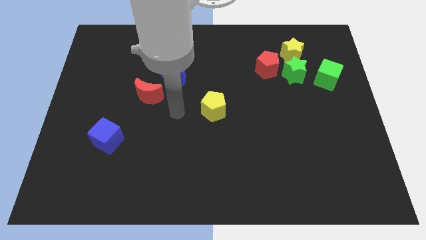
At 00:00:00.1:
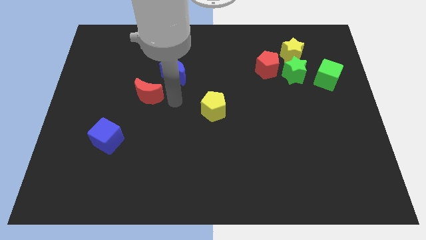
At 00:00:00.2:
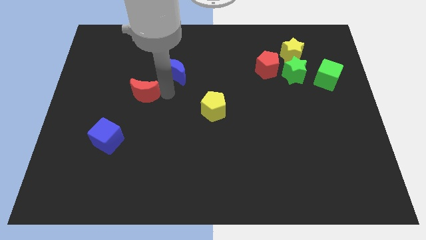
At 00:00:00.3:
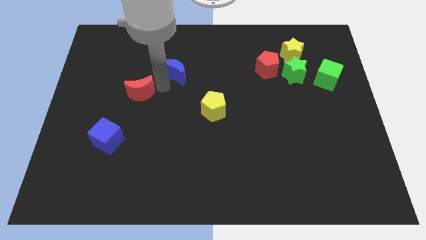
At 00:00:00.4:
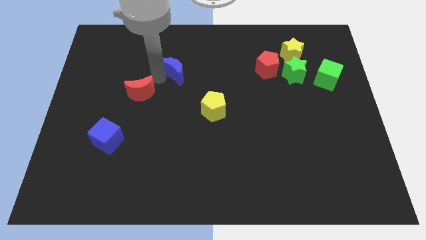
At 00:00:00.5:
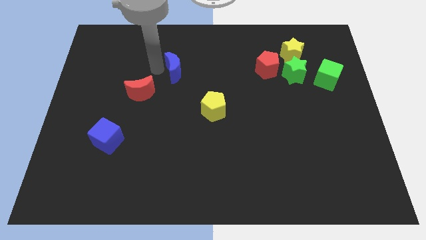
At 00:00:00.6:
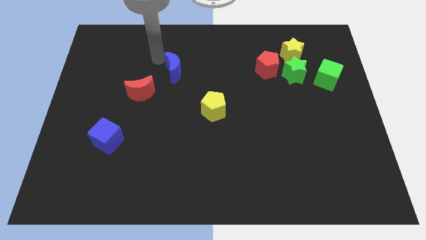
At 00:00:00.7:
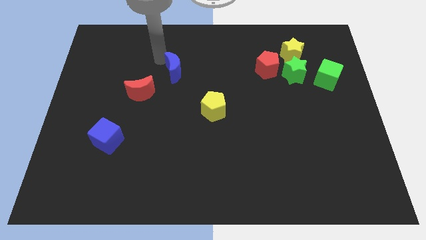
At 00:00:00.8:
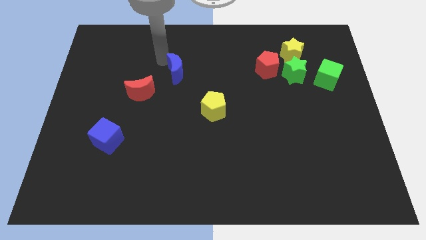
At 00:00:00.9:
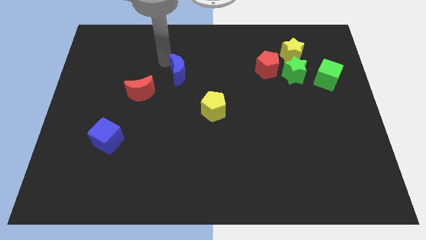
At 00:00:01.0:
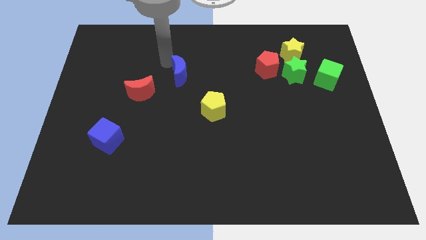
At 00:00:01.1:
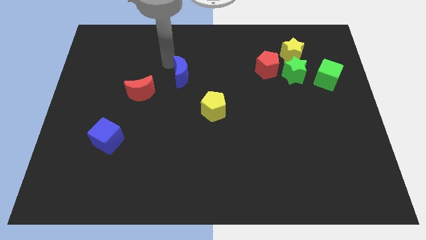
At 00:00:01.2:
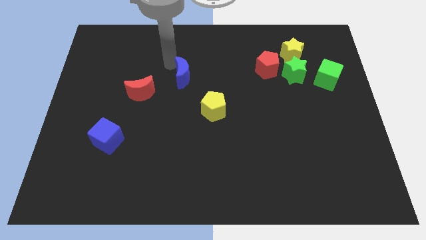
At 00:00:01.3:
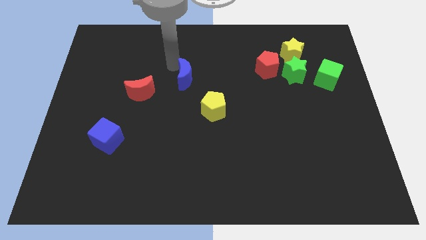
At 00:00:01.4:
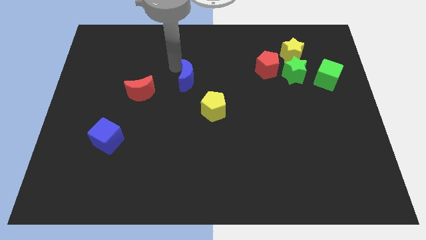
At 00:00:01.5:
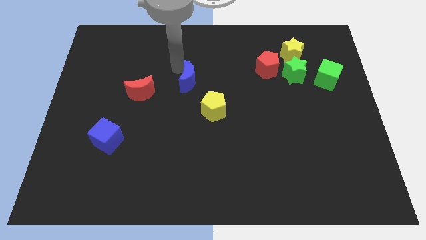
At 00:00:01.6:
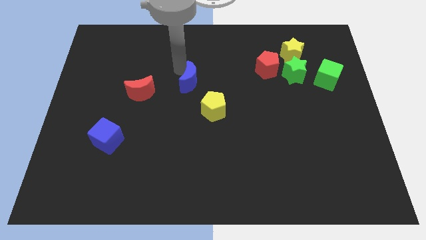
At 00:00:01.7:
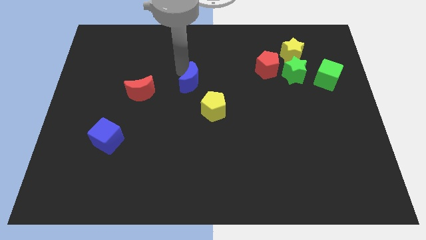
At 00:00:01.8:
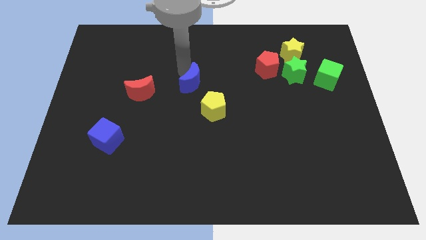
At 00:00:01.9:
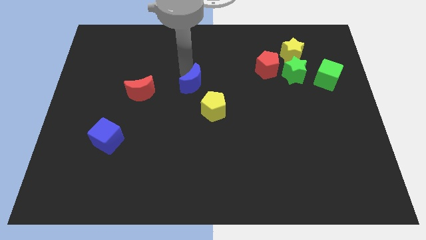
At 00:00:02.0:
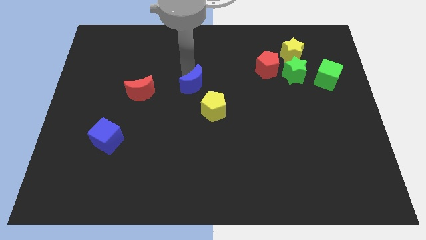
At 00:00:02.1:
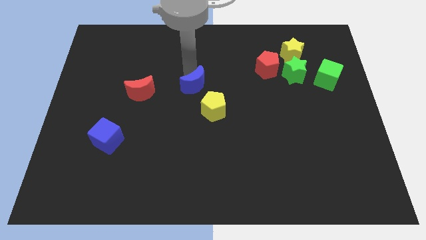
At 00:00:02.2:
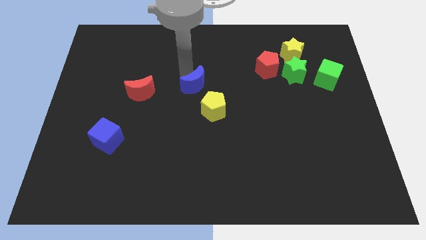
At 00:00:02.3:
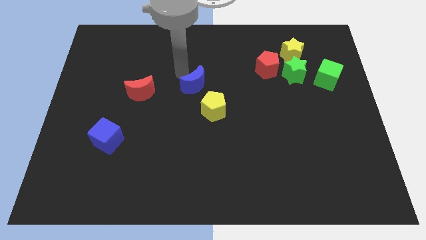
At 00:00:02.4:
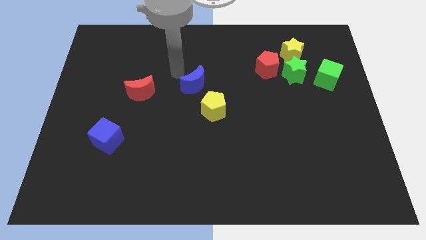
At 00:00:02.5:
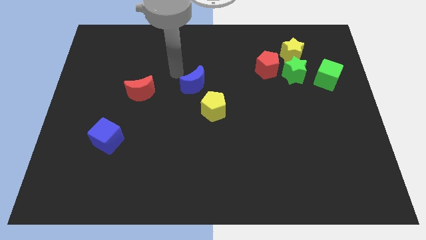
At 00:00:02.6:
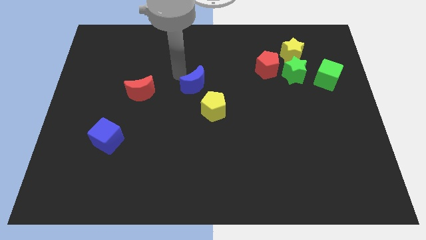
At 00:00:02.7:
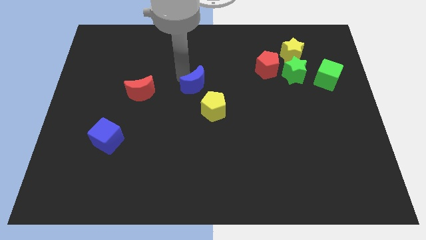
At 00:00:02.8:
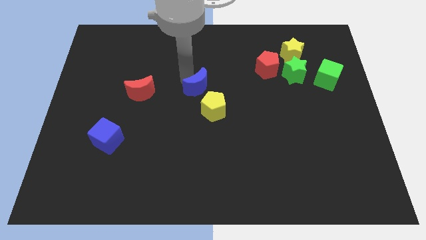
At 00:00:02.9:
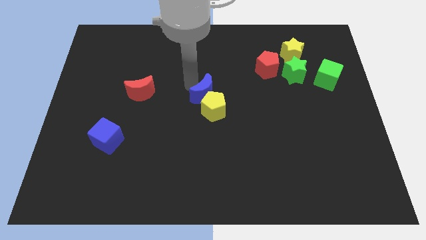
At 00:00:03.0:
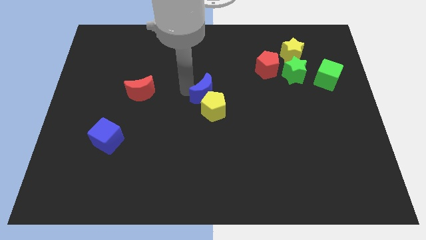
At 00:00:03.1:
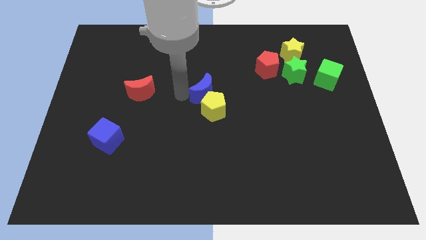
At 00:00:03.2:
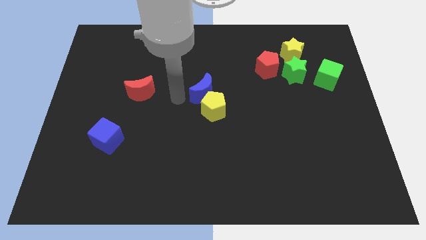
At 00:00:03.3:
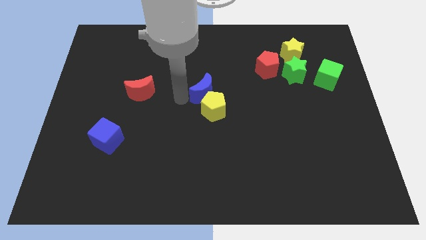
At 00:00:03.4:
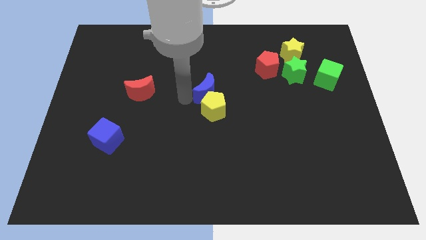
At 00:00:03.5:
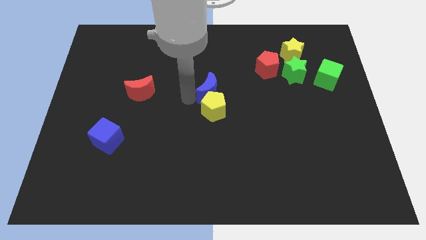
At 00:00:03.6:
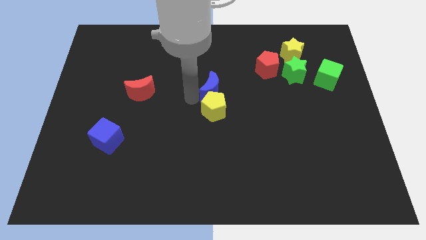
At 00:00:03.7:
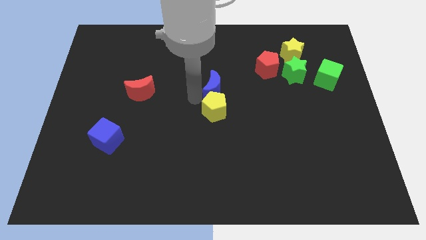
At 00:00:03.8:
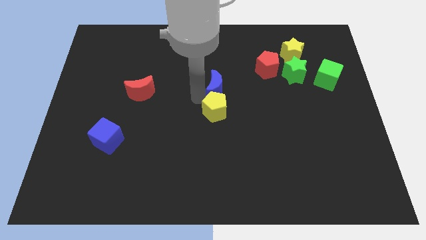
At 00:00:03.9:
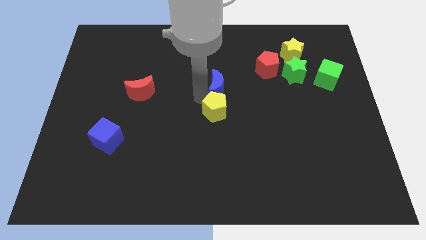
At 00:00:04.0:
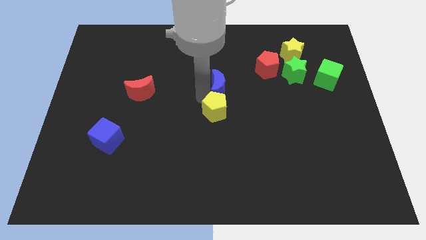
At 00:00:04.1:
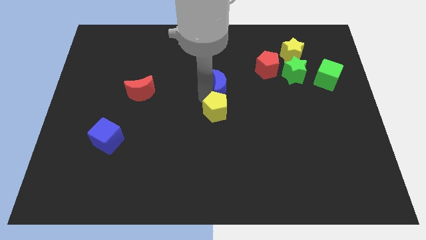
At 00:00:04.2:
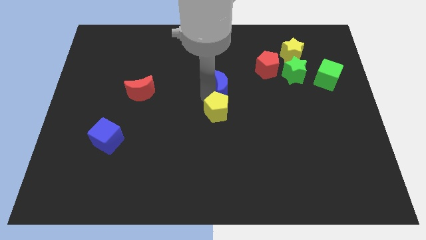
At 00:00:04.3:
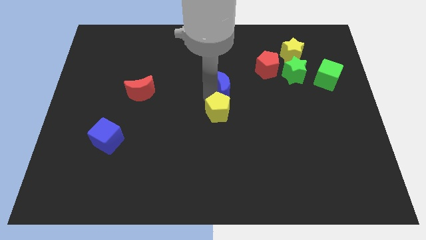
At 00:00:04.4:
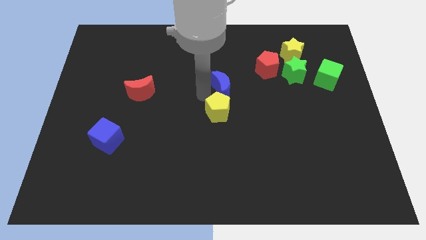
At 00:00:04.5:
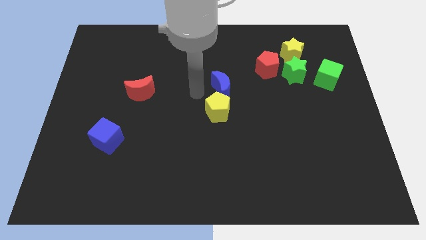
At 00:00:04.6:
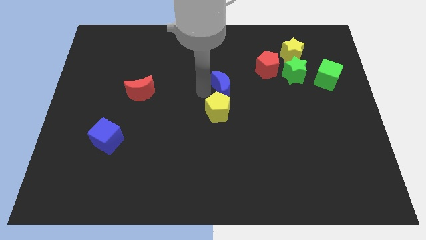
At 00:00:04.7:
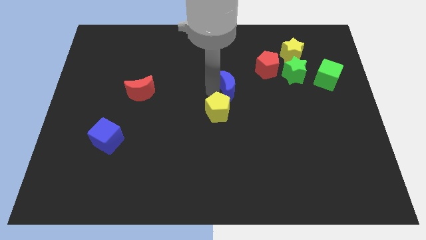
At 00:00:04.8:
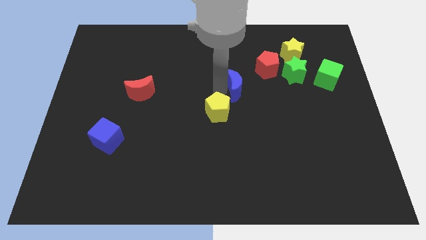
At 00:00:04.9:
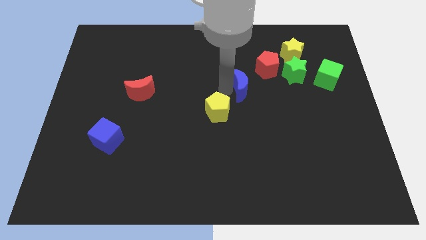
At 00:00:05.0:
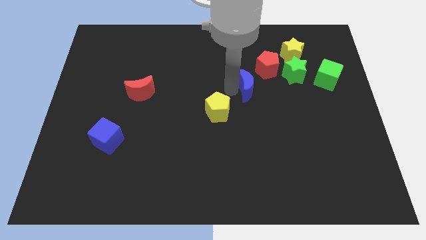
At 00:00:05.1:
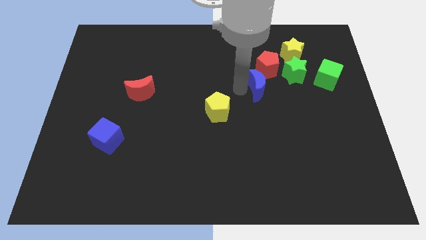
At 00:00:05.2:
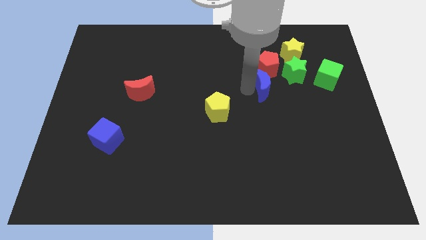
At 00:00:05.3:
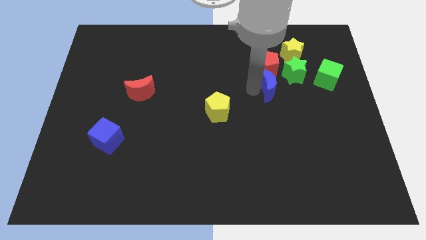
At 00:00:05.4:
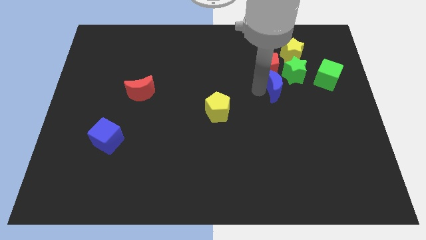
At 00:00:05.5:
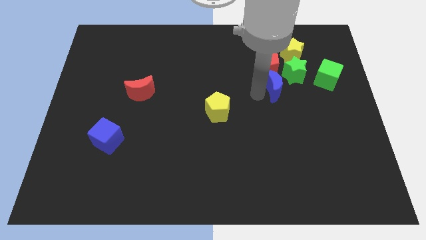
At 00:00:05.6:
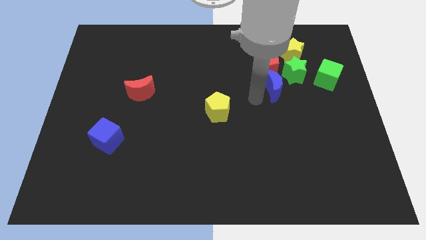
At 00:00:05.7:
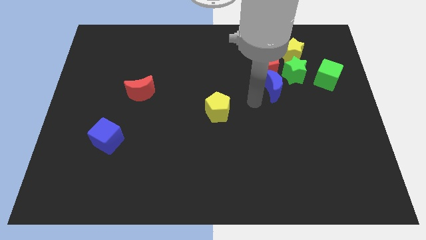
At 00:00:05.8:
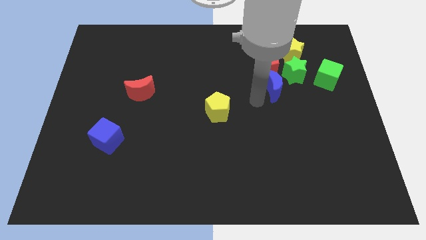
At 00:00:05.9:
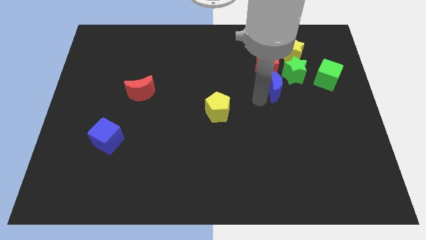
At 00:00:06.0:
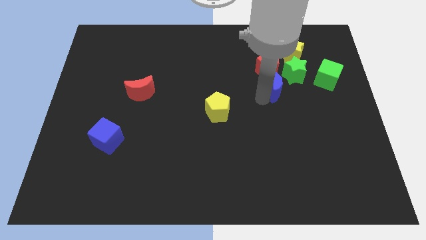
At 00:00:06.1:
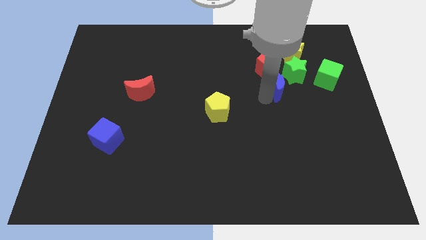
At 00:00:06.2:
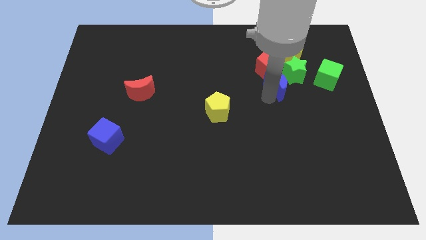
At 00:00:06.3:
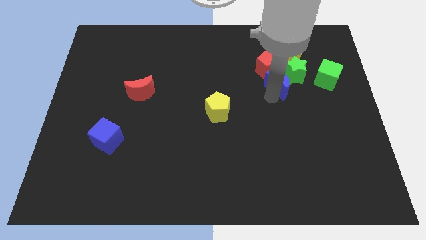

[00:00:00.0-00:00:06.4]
push the blue moon to the green star

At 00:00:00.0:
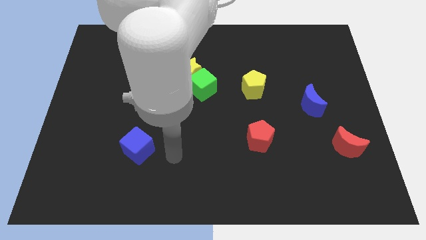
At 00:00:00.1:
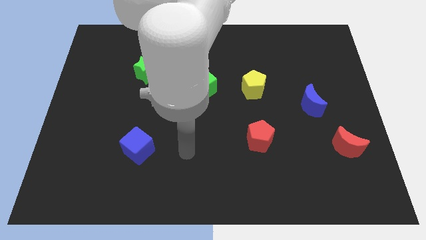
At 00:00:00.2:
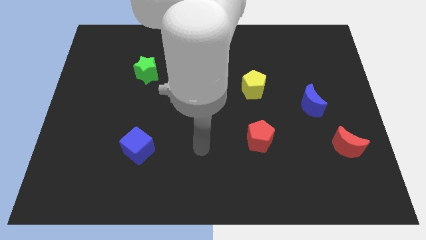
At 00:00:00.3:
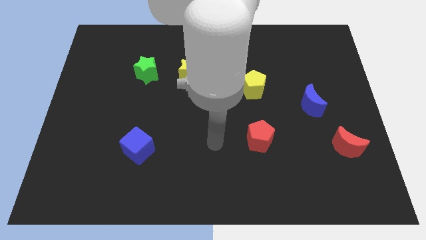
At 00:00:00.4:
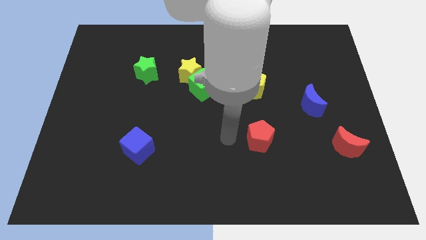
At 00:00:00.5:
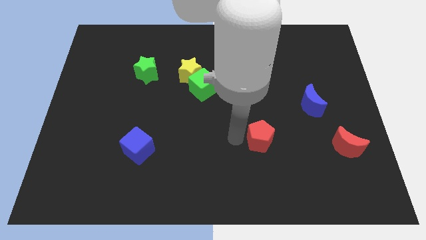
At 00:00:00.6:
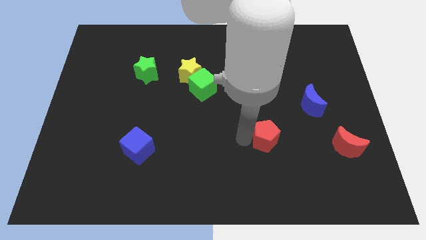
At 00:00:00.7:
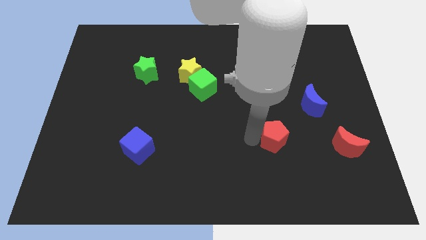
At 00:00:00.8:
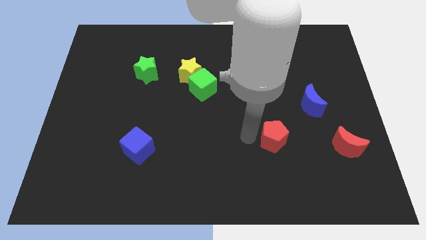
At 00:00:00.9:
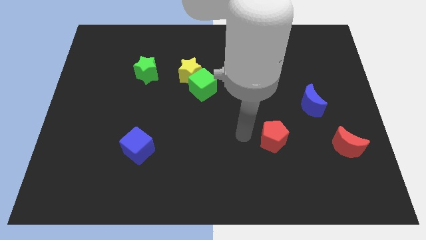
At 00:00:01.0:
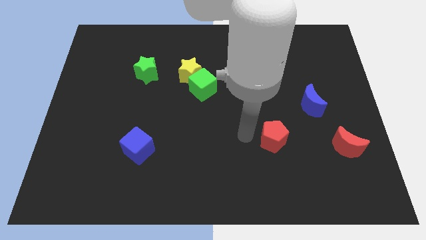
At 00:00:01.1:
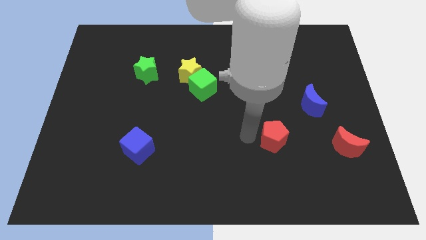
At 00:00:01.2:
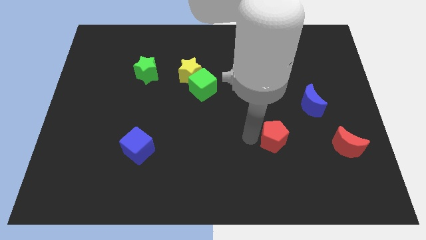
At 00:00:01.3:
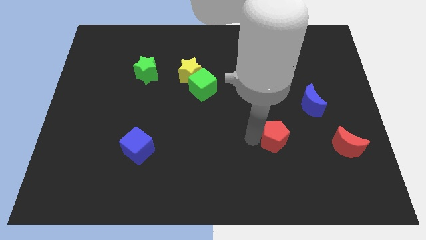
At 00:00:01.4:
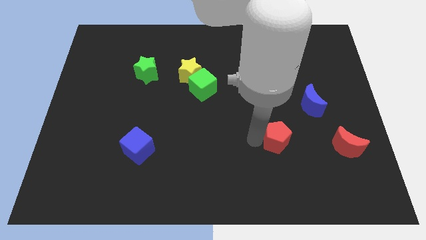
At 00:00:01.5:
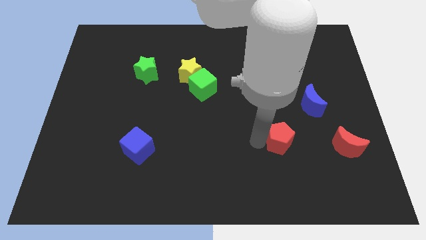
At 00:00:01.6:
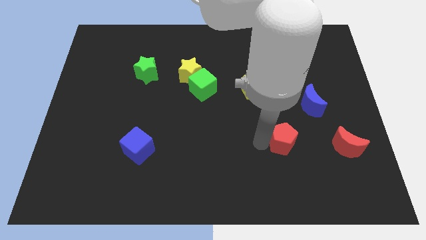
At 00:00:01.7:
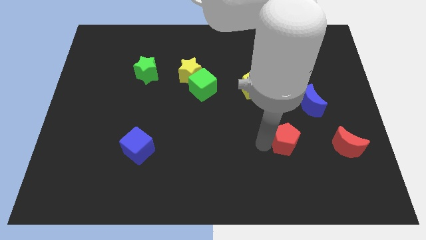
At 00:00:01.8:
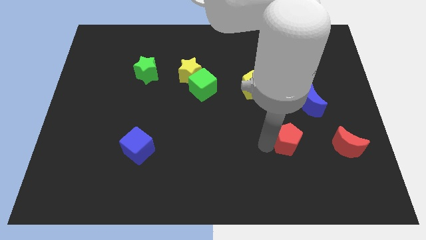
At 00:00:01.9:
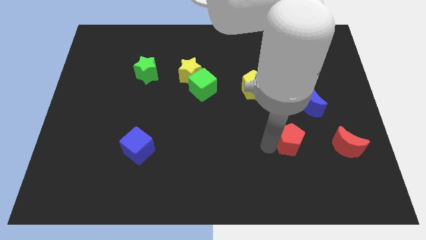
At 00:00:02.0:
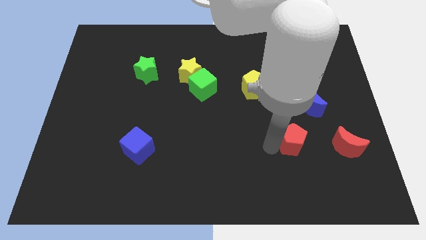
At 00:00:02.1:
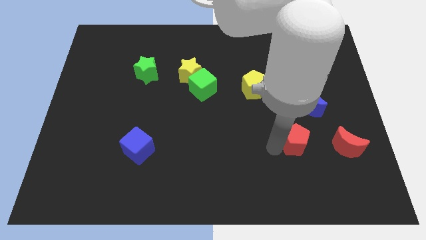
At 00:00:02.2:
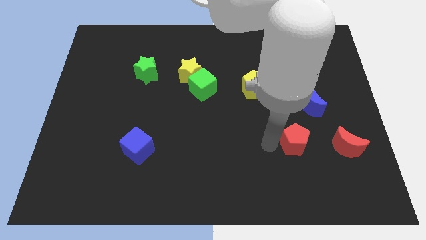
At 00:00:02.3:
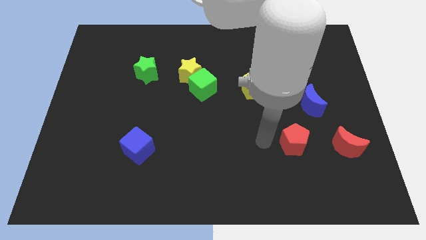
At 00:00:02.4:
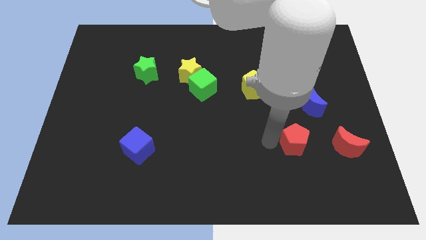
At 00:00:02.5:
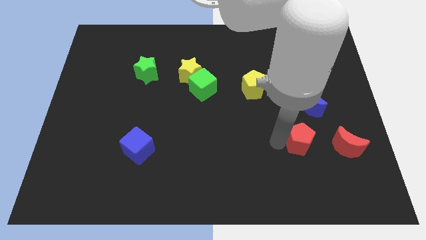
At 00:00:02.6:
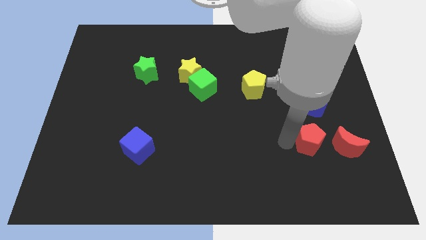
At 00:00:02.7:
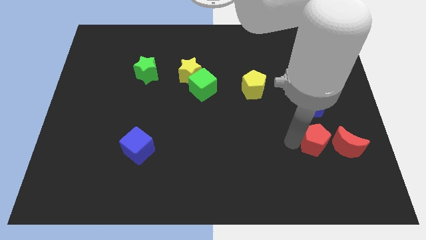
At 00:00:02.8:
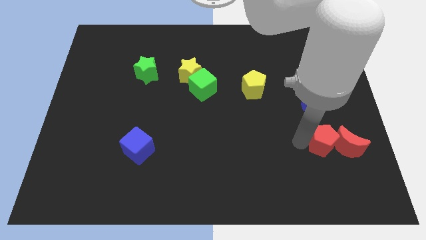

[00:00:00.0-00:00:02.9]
slide the red pentagon towards the red moon
